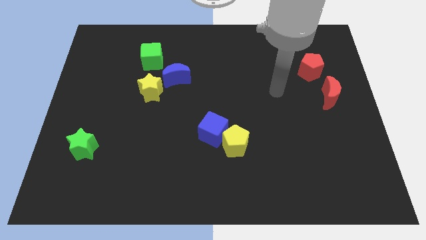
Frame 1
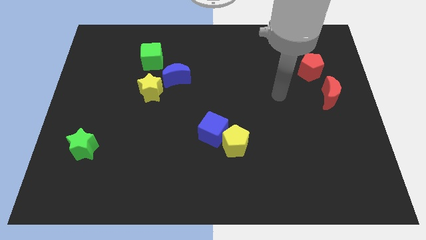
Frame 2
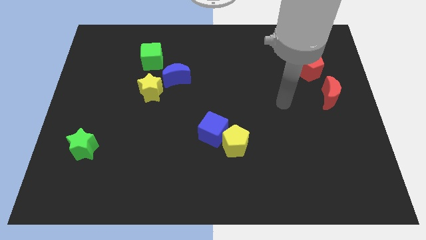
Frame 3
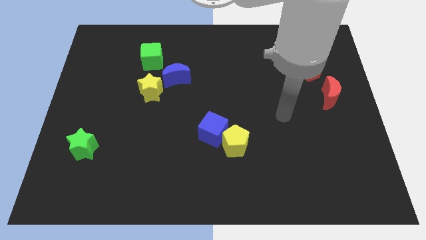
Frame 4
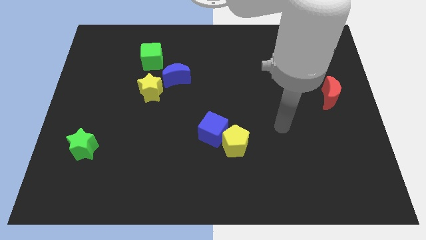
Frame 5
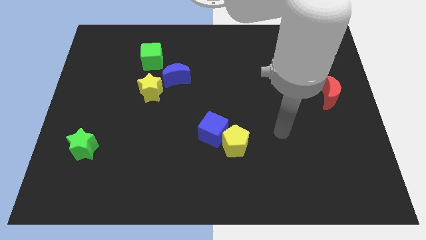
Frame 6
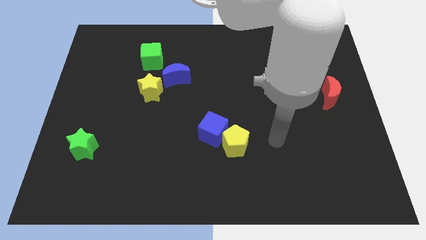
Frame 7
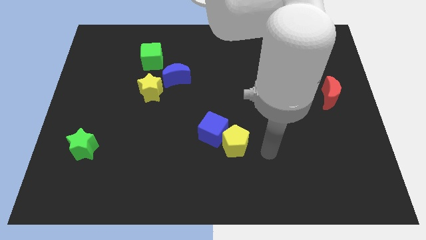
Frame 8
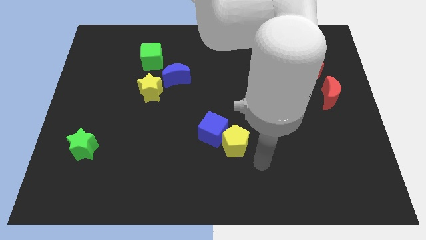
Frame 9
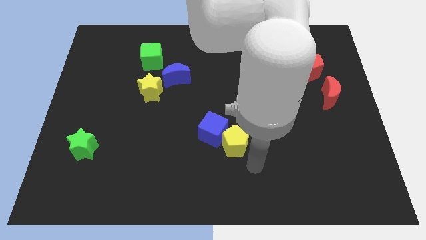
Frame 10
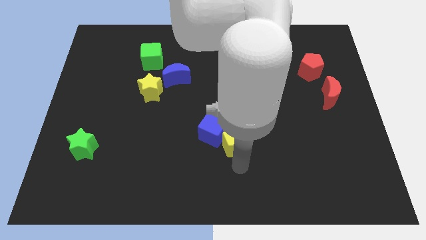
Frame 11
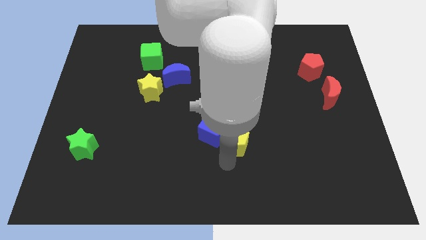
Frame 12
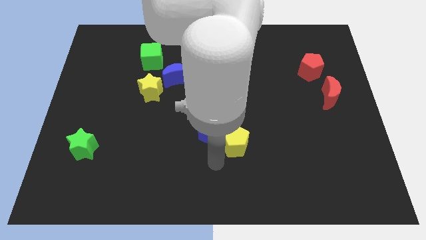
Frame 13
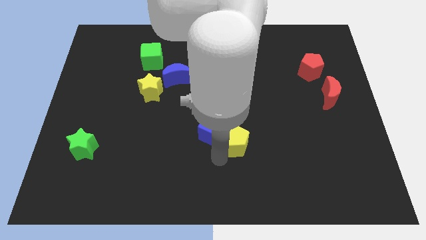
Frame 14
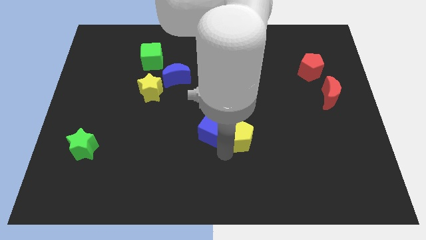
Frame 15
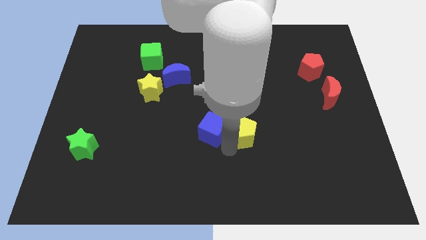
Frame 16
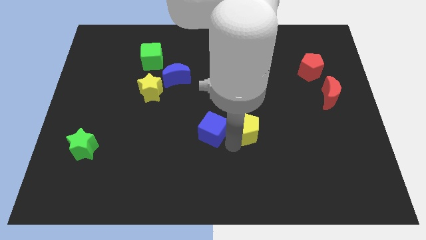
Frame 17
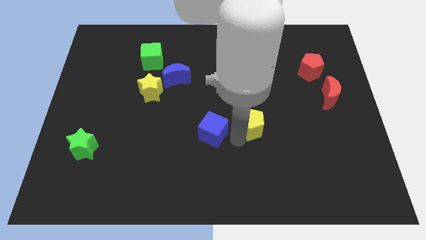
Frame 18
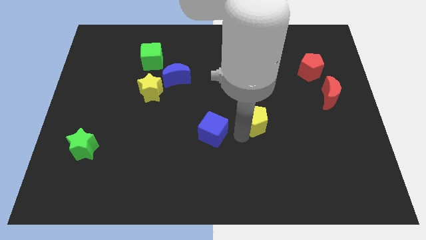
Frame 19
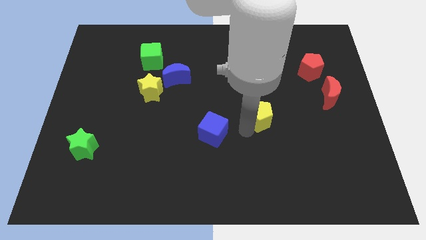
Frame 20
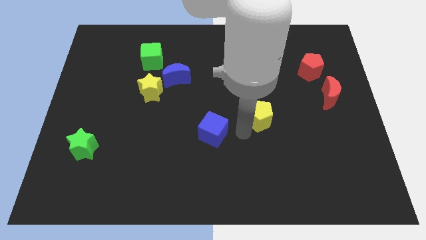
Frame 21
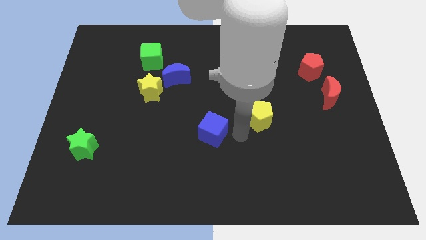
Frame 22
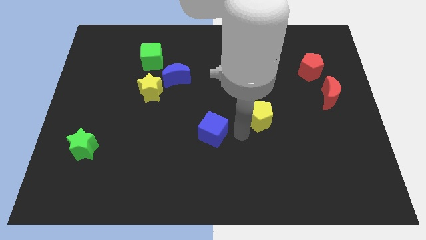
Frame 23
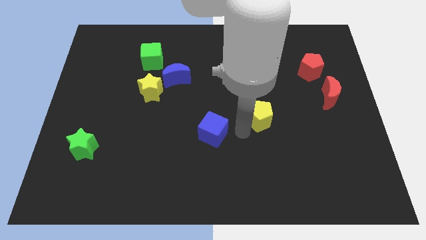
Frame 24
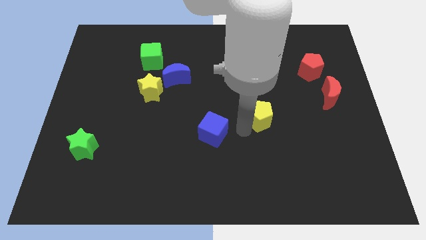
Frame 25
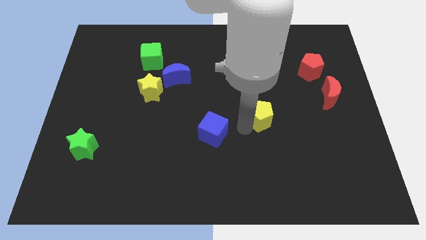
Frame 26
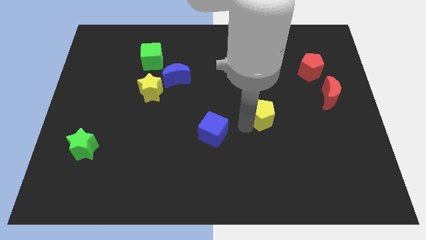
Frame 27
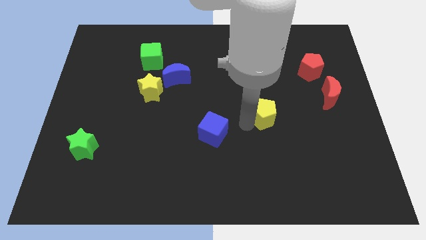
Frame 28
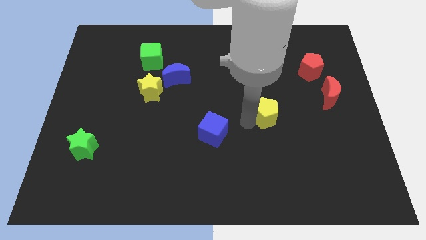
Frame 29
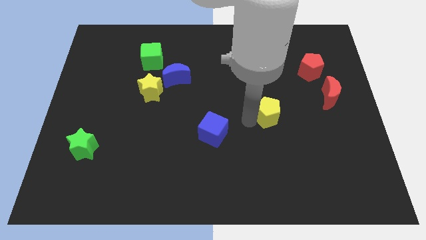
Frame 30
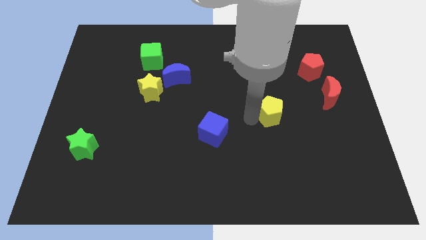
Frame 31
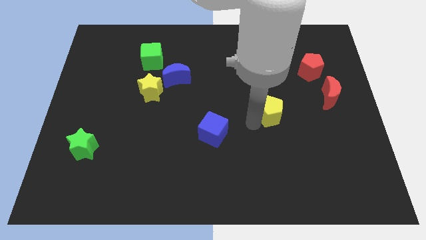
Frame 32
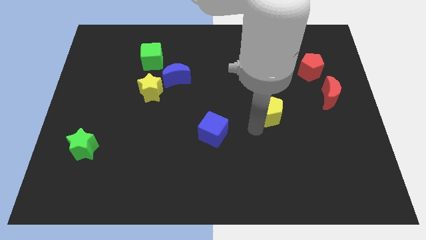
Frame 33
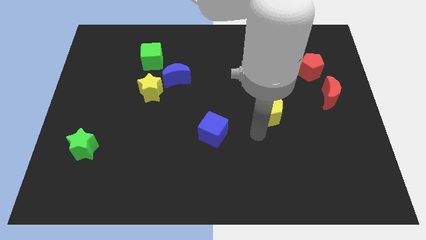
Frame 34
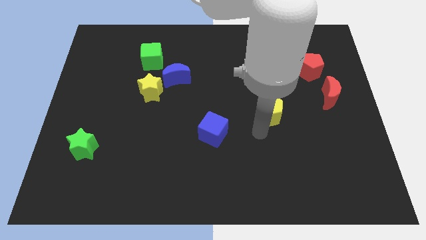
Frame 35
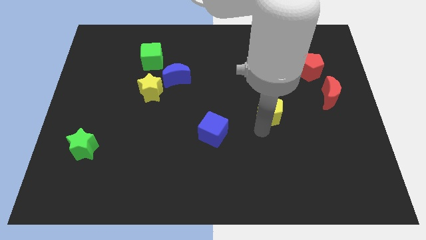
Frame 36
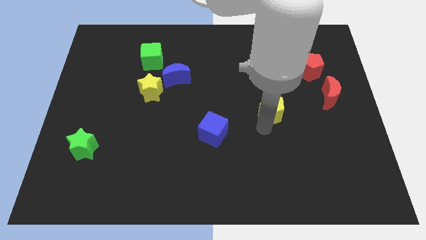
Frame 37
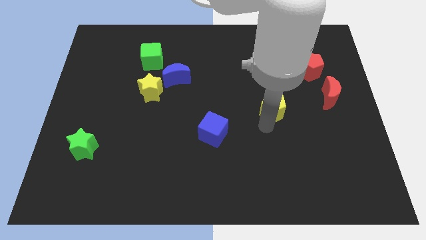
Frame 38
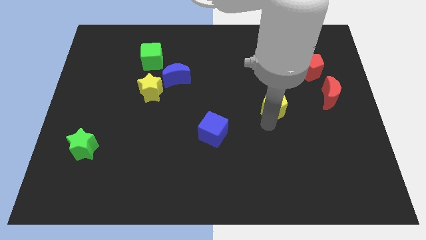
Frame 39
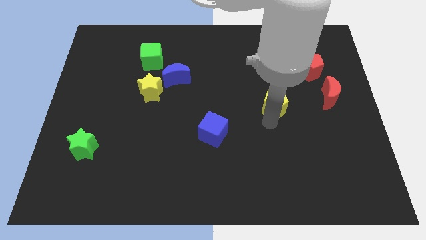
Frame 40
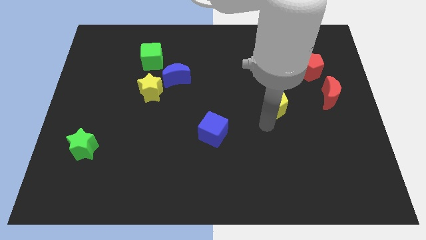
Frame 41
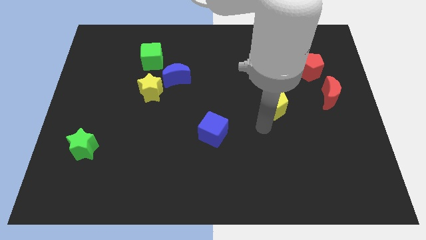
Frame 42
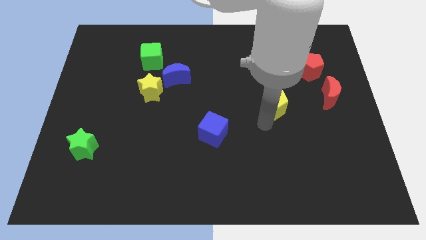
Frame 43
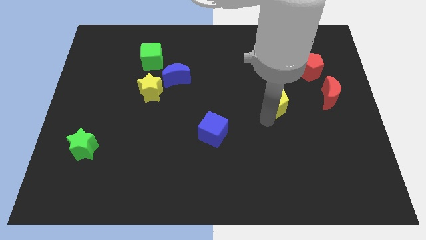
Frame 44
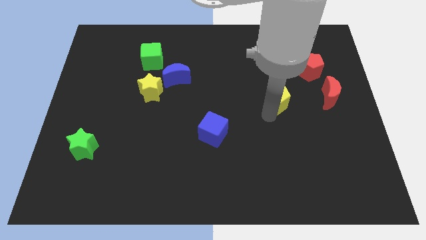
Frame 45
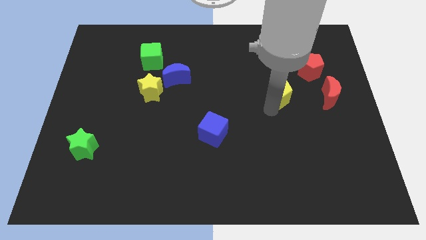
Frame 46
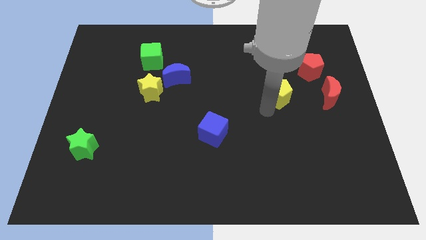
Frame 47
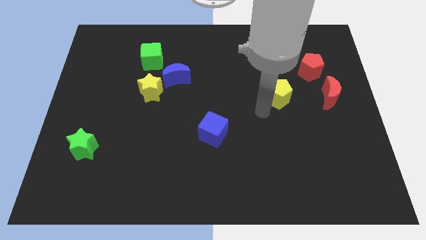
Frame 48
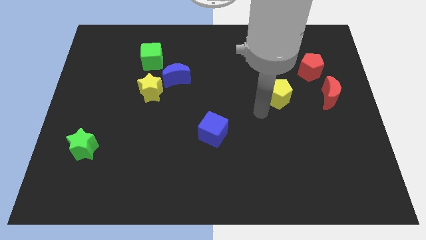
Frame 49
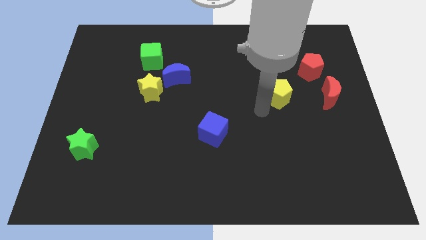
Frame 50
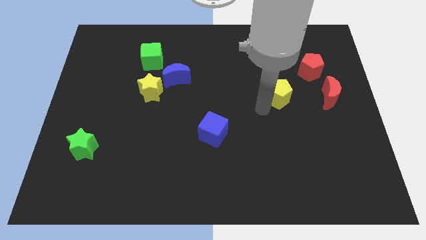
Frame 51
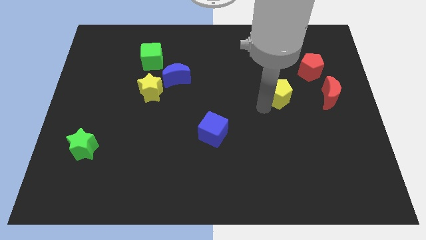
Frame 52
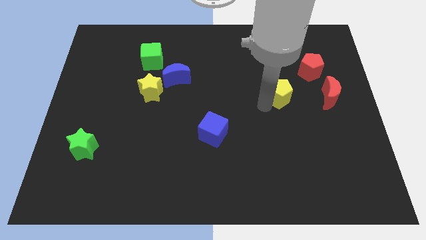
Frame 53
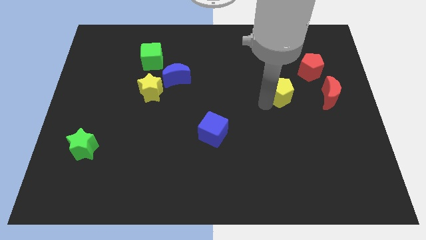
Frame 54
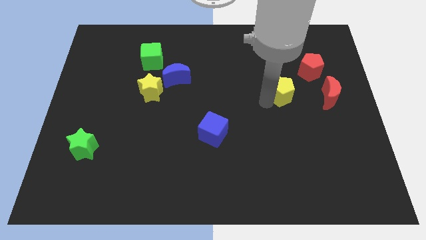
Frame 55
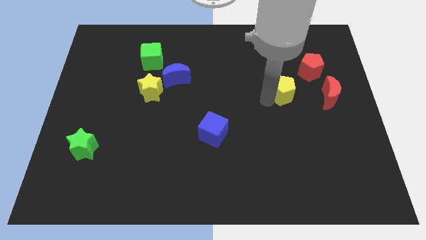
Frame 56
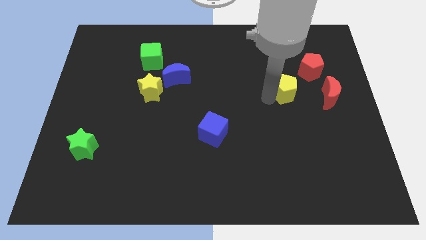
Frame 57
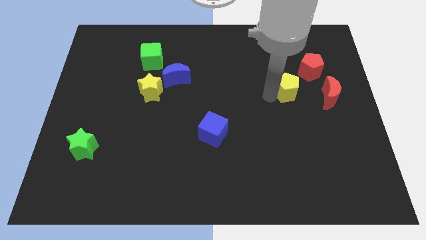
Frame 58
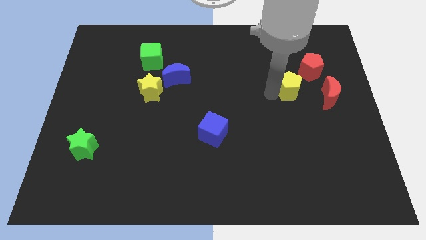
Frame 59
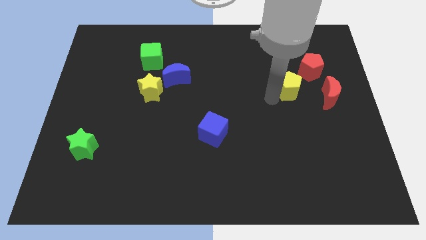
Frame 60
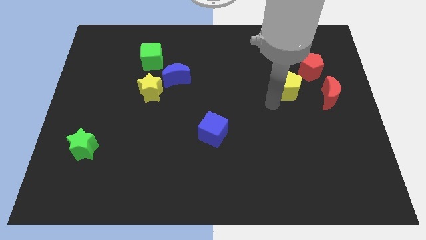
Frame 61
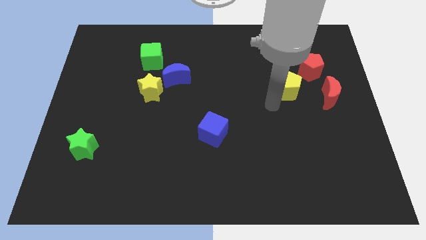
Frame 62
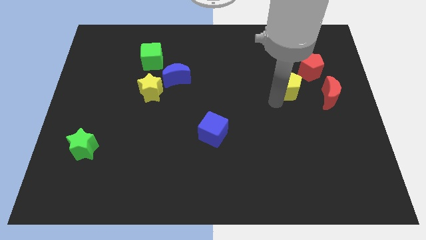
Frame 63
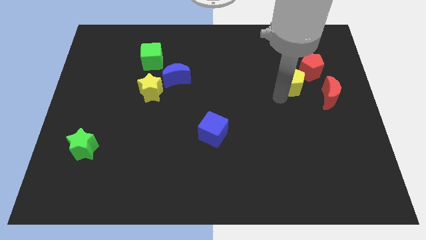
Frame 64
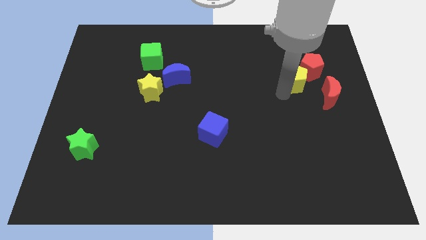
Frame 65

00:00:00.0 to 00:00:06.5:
slide the yellow pentagon close to the red pentagon
